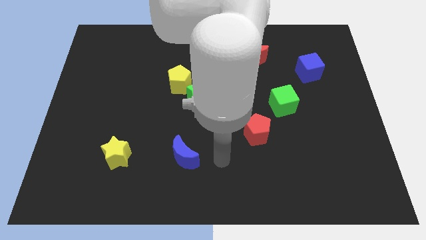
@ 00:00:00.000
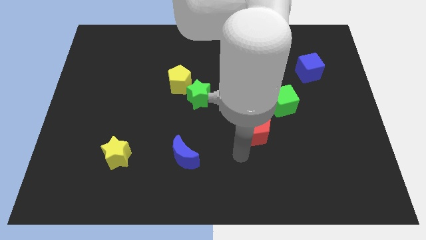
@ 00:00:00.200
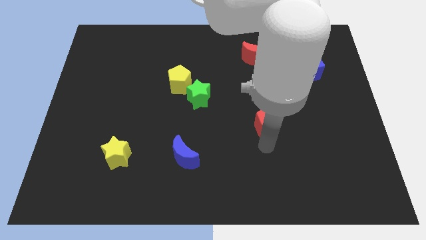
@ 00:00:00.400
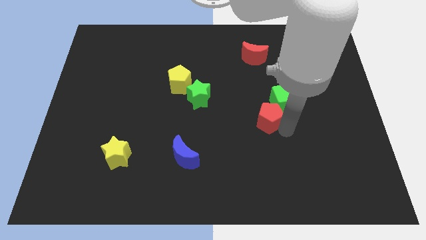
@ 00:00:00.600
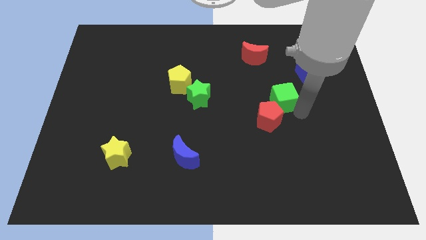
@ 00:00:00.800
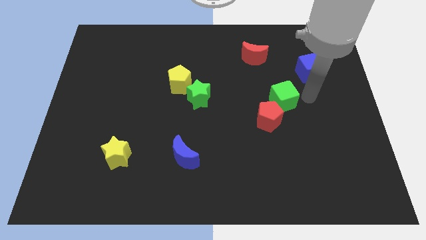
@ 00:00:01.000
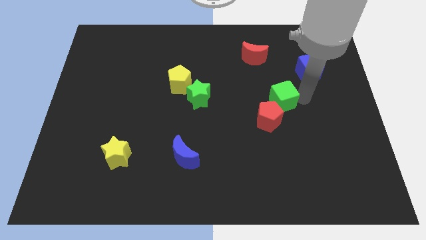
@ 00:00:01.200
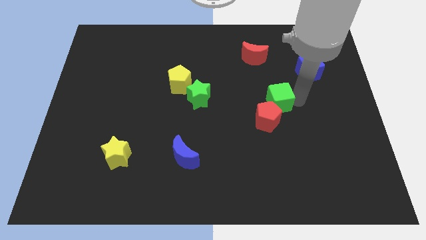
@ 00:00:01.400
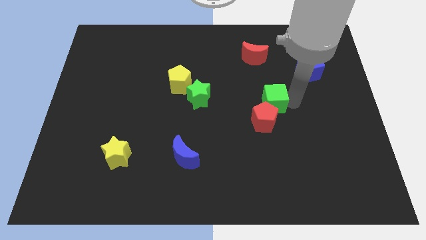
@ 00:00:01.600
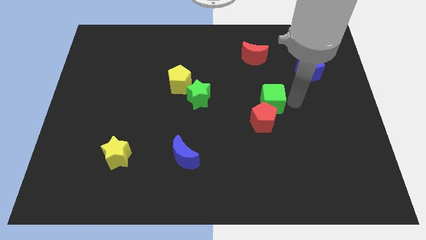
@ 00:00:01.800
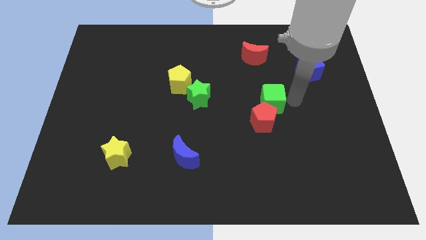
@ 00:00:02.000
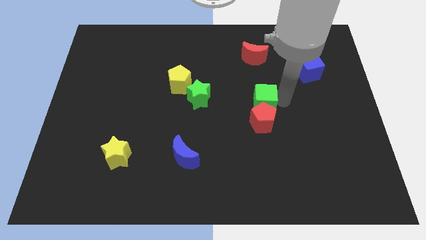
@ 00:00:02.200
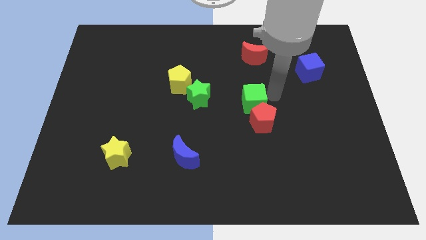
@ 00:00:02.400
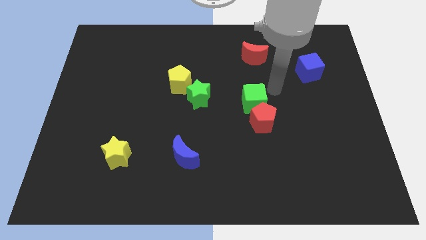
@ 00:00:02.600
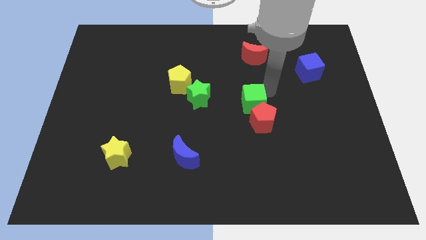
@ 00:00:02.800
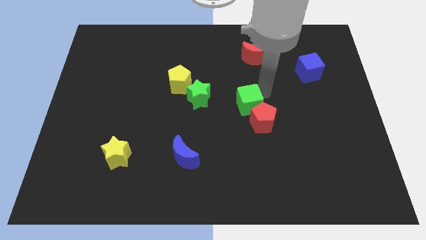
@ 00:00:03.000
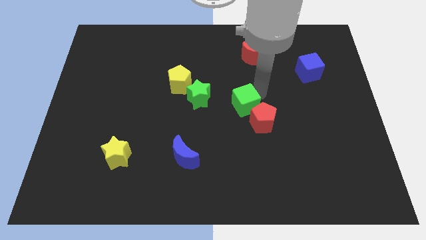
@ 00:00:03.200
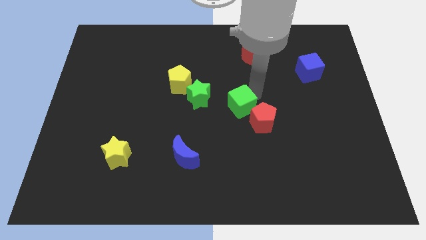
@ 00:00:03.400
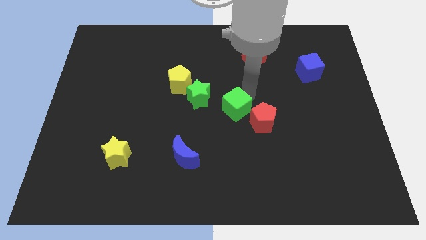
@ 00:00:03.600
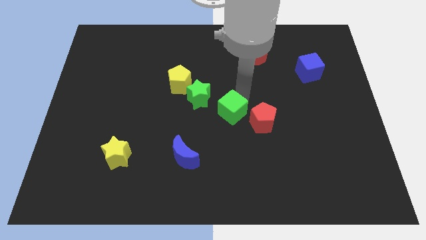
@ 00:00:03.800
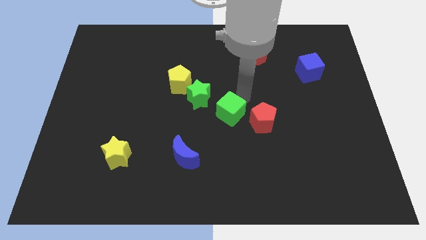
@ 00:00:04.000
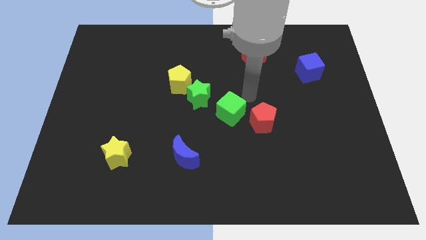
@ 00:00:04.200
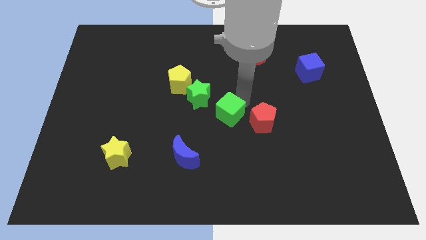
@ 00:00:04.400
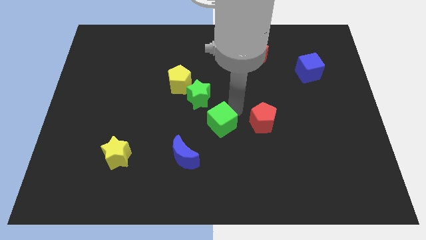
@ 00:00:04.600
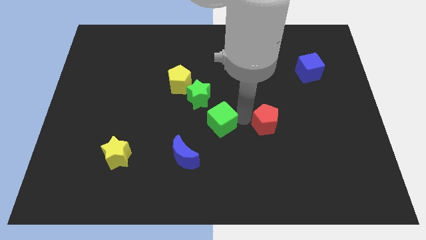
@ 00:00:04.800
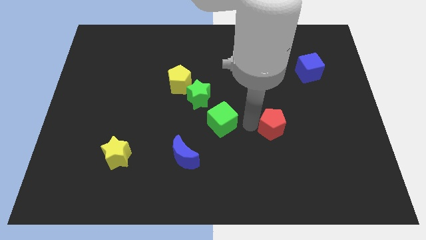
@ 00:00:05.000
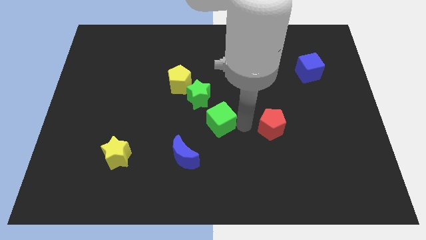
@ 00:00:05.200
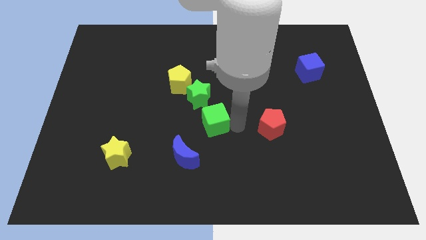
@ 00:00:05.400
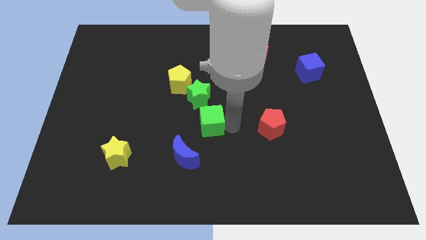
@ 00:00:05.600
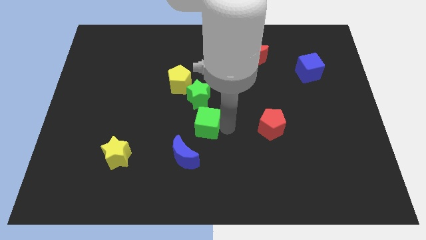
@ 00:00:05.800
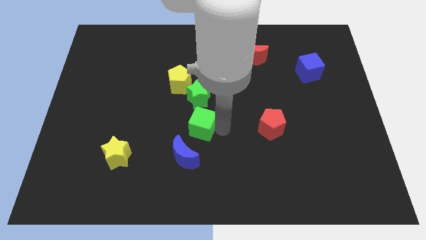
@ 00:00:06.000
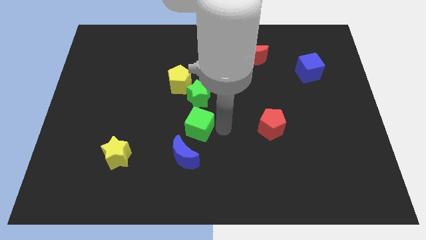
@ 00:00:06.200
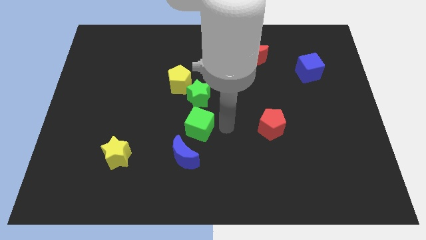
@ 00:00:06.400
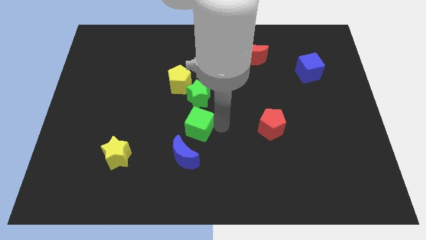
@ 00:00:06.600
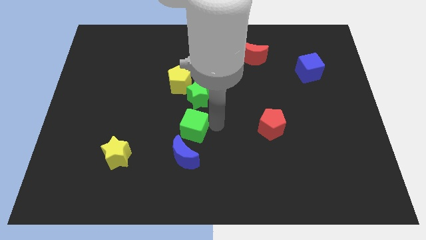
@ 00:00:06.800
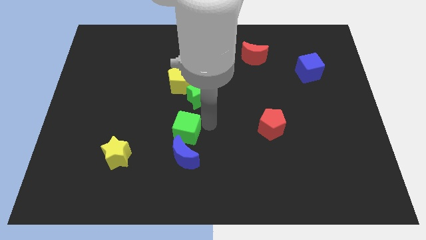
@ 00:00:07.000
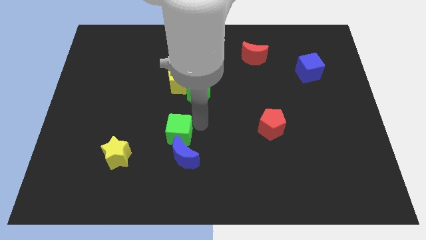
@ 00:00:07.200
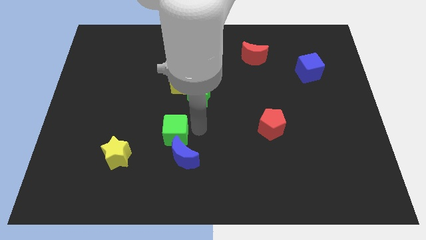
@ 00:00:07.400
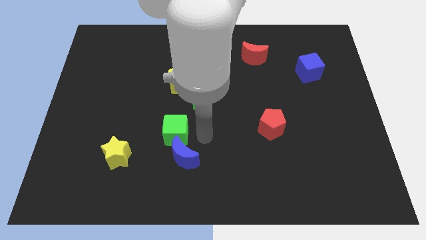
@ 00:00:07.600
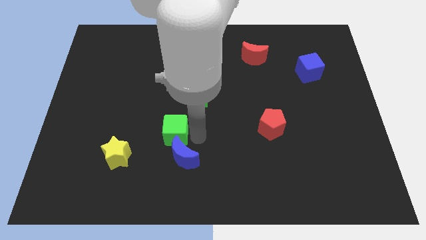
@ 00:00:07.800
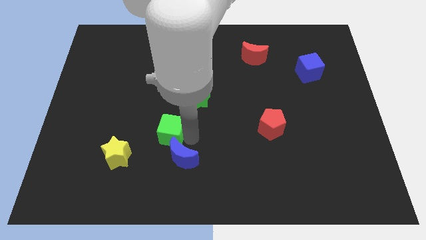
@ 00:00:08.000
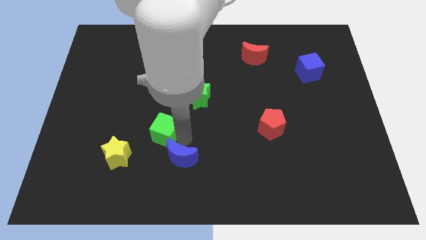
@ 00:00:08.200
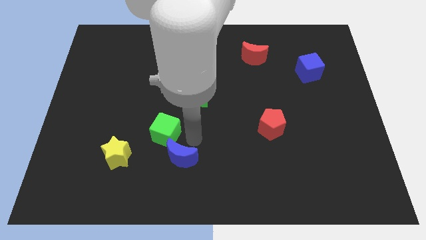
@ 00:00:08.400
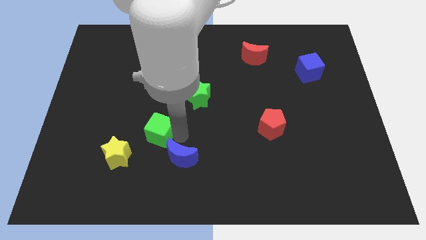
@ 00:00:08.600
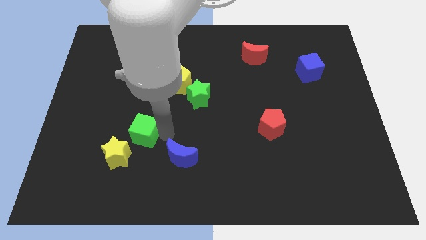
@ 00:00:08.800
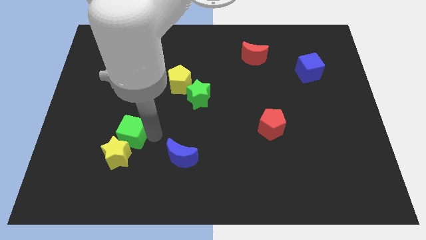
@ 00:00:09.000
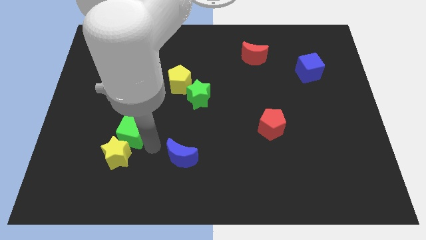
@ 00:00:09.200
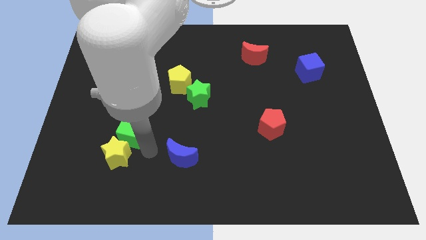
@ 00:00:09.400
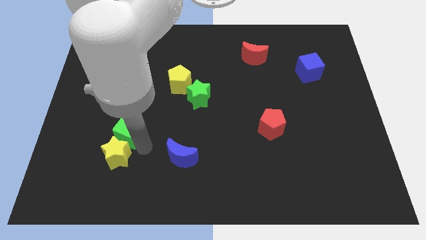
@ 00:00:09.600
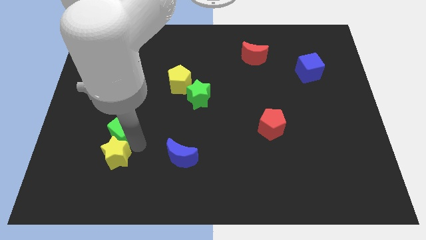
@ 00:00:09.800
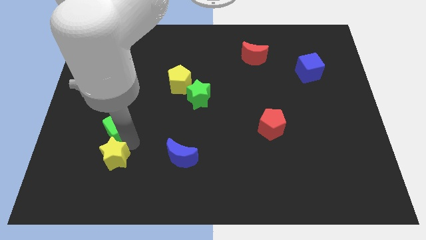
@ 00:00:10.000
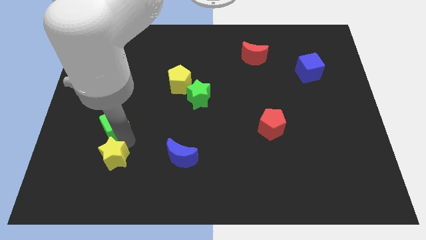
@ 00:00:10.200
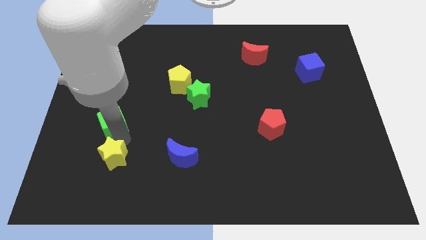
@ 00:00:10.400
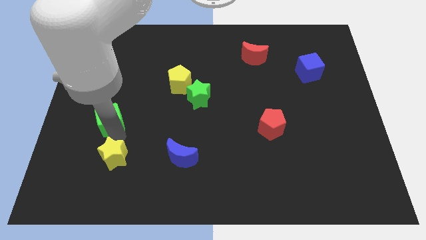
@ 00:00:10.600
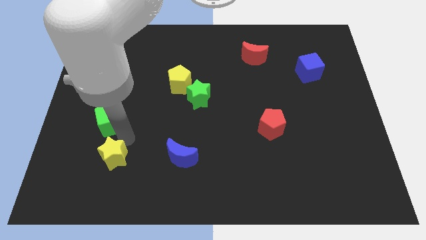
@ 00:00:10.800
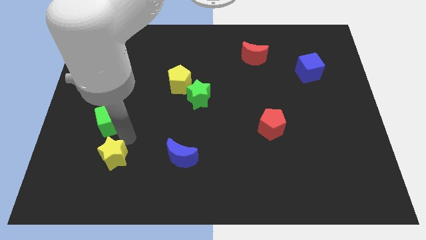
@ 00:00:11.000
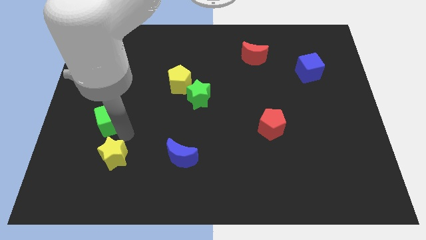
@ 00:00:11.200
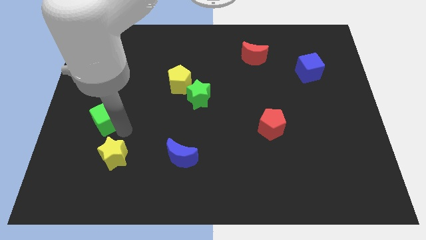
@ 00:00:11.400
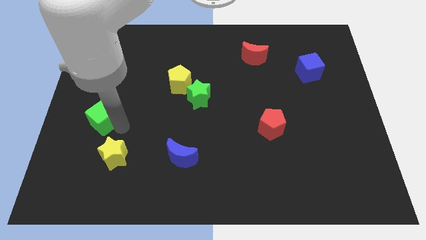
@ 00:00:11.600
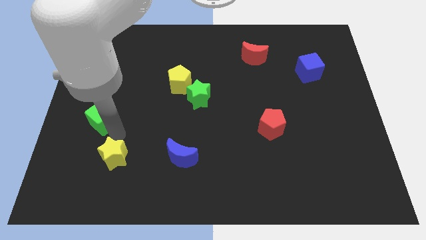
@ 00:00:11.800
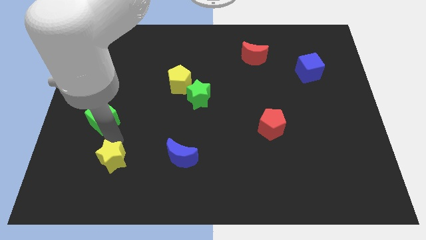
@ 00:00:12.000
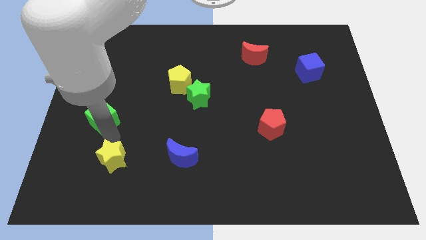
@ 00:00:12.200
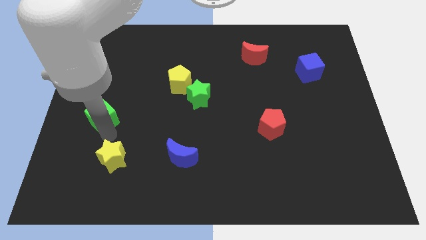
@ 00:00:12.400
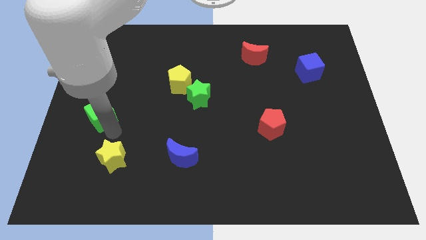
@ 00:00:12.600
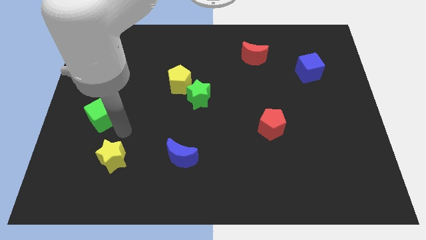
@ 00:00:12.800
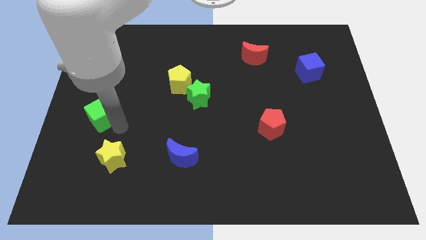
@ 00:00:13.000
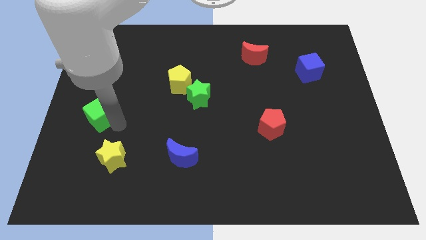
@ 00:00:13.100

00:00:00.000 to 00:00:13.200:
put the green cube to the left side

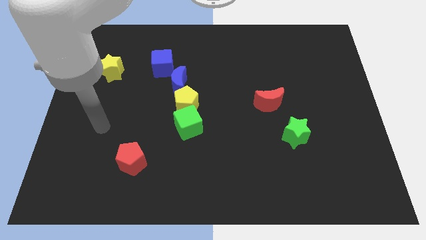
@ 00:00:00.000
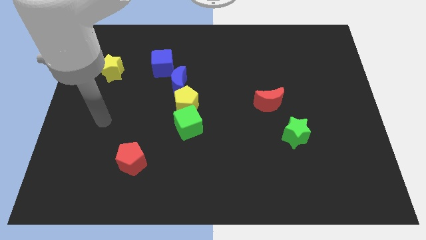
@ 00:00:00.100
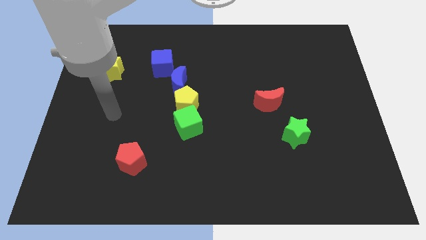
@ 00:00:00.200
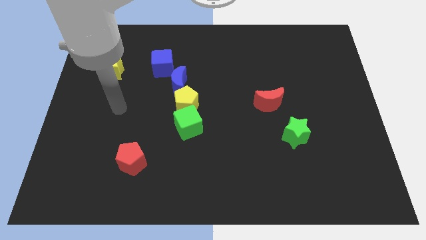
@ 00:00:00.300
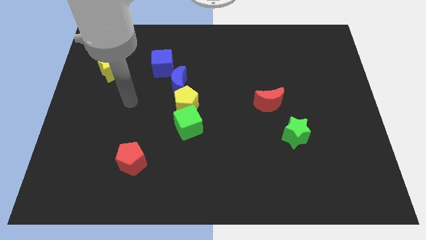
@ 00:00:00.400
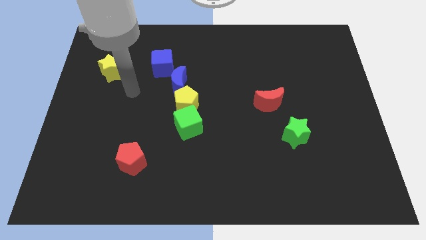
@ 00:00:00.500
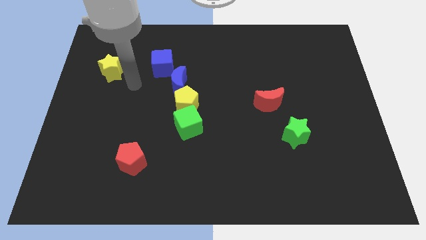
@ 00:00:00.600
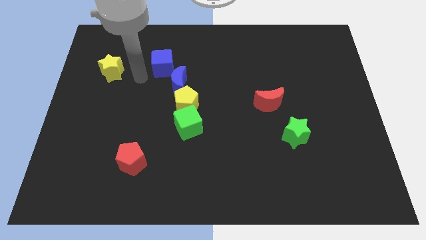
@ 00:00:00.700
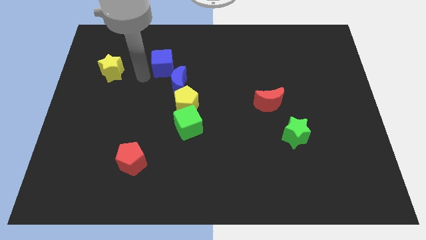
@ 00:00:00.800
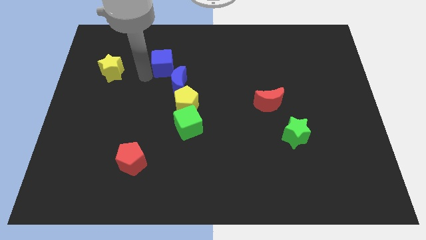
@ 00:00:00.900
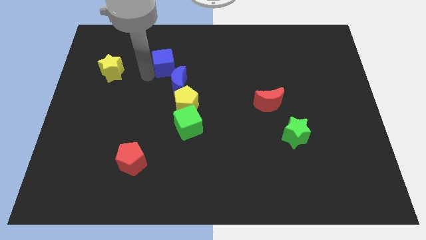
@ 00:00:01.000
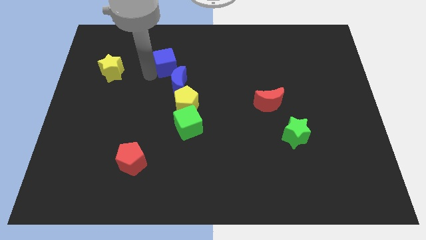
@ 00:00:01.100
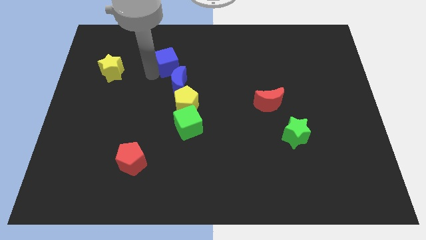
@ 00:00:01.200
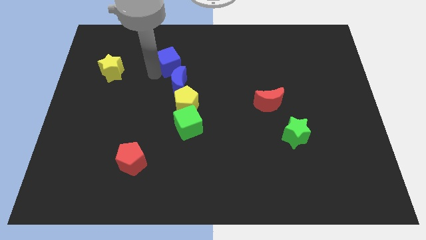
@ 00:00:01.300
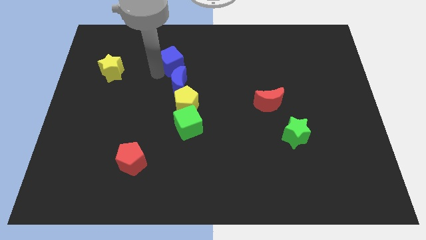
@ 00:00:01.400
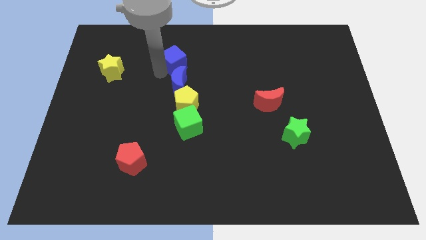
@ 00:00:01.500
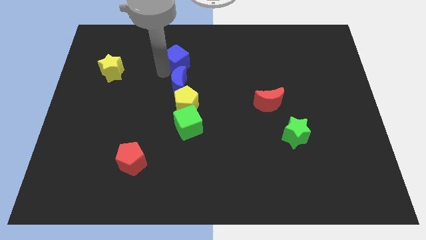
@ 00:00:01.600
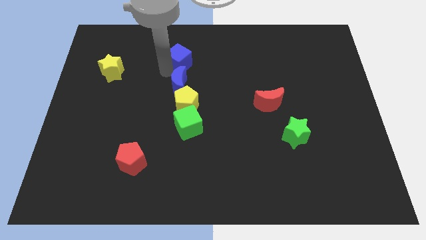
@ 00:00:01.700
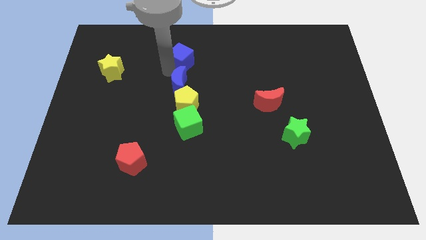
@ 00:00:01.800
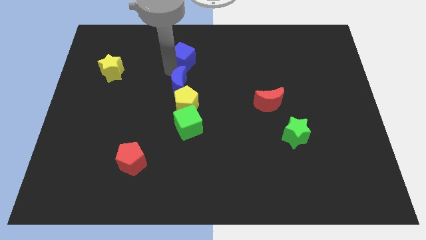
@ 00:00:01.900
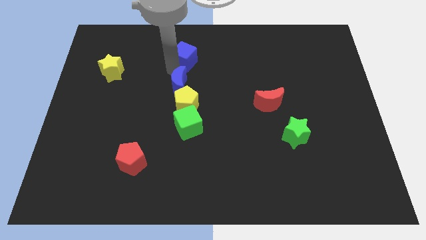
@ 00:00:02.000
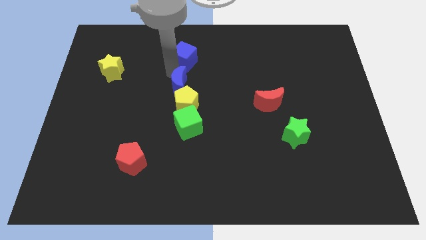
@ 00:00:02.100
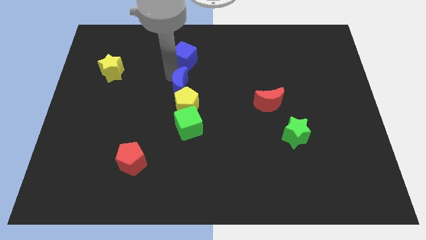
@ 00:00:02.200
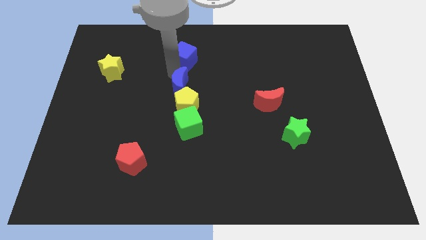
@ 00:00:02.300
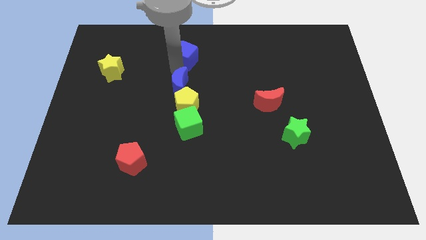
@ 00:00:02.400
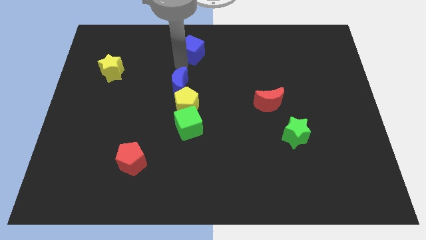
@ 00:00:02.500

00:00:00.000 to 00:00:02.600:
slide the blue cube to the towards your base
